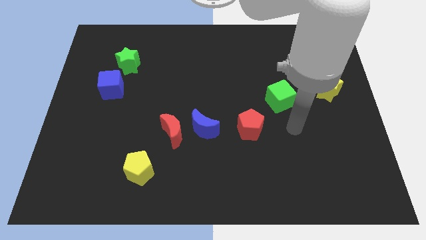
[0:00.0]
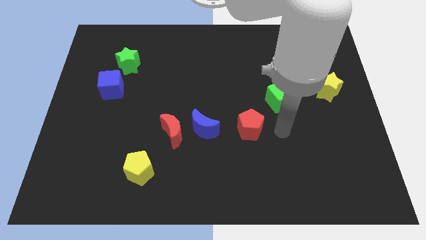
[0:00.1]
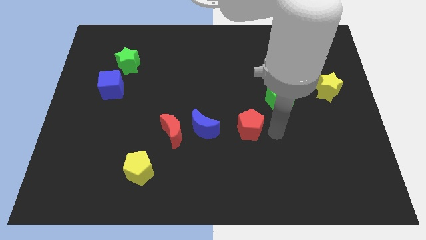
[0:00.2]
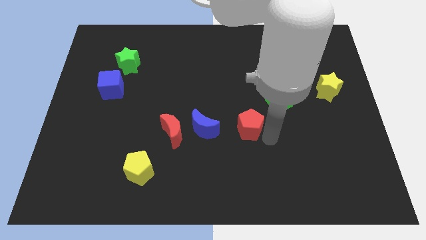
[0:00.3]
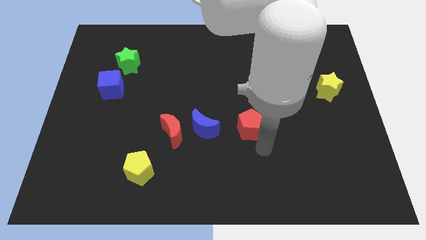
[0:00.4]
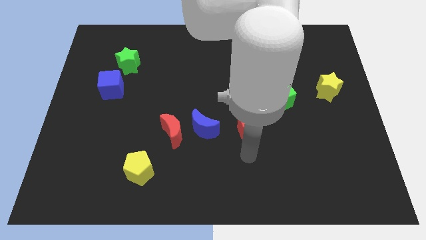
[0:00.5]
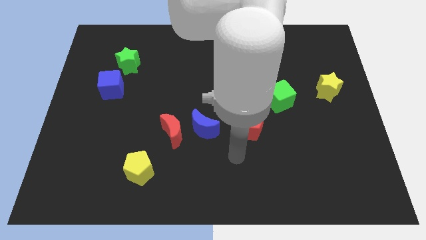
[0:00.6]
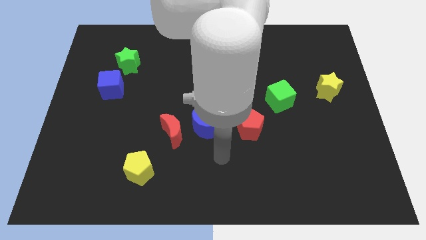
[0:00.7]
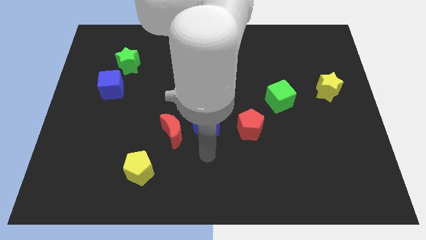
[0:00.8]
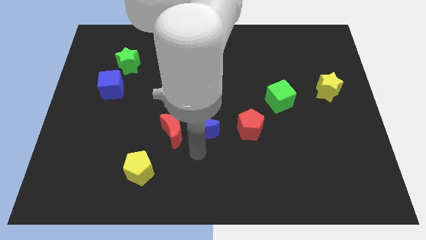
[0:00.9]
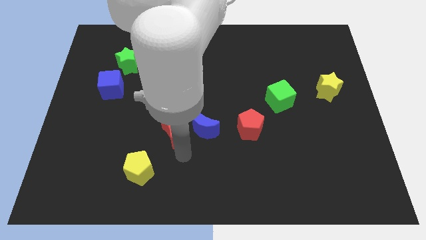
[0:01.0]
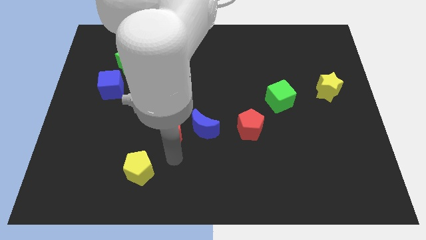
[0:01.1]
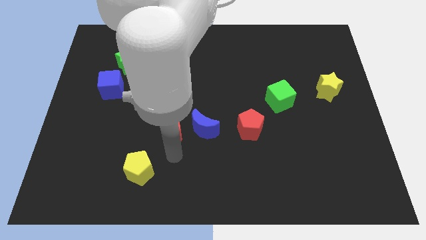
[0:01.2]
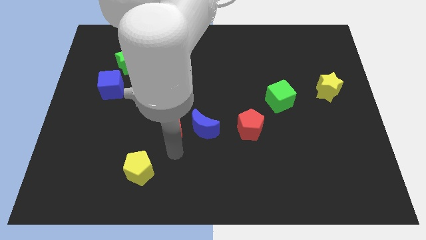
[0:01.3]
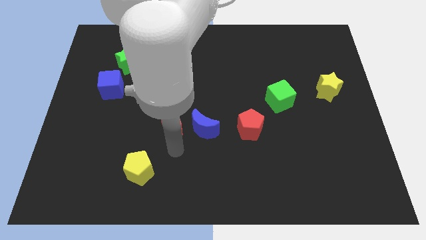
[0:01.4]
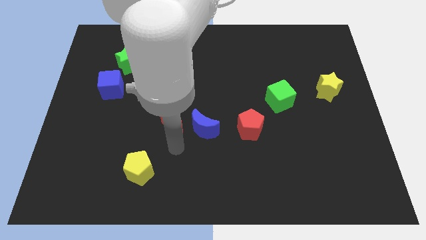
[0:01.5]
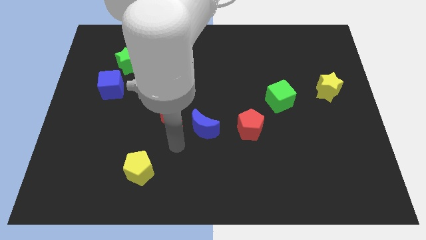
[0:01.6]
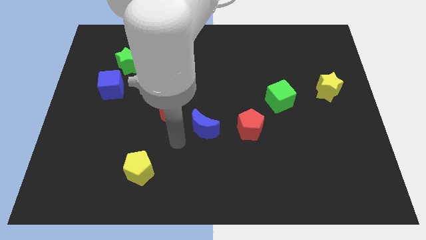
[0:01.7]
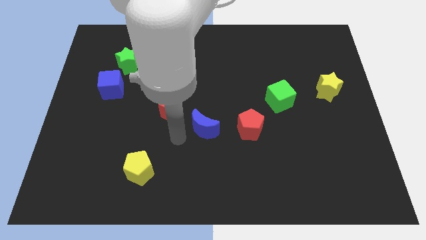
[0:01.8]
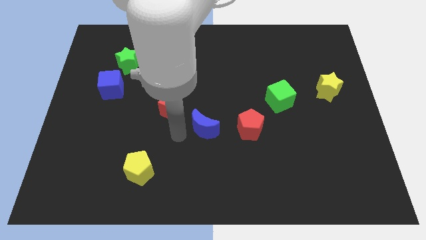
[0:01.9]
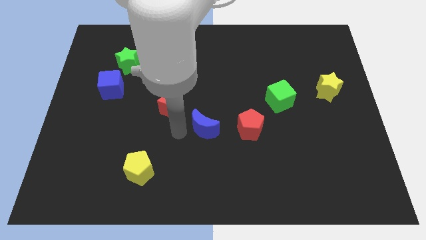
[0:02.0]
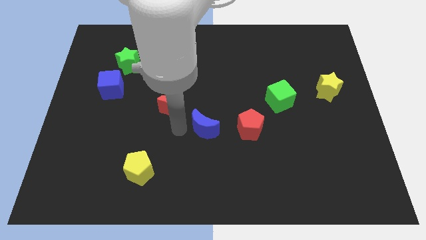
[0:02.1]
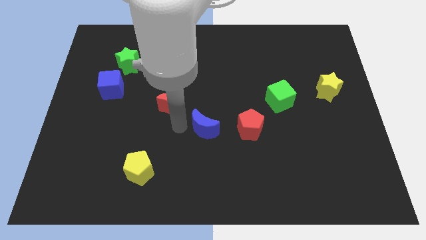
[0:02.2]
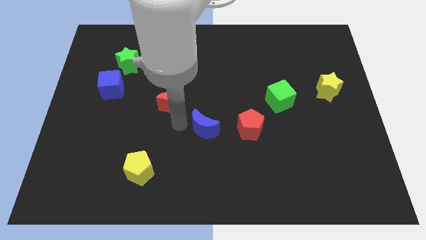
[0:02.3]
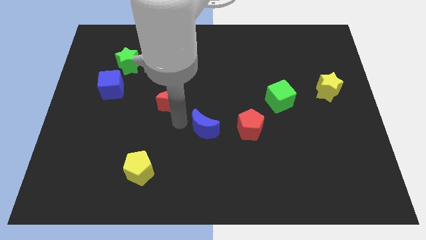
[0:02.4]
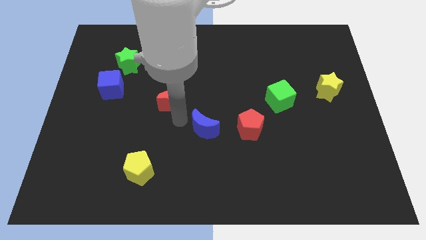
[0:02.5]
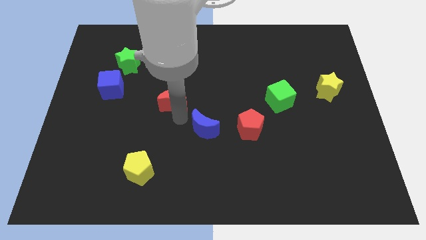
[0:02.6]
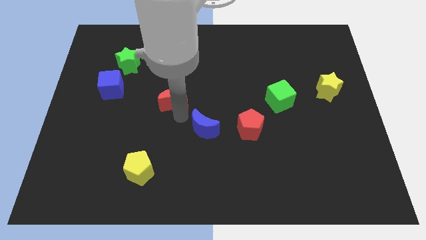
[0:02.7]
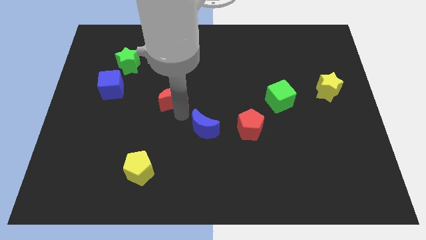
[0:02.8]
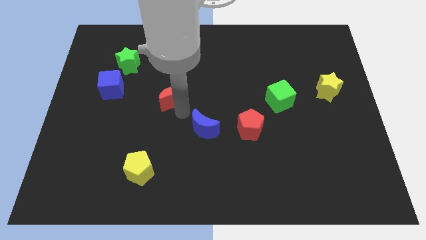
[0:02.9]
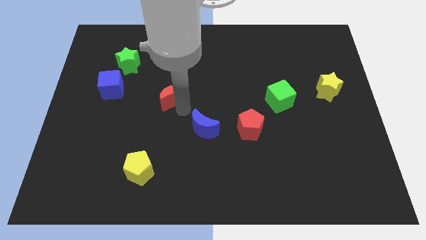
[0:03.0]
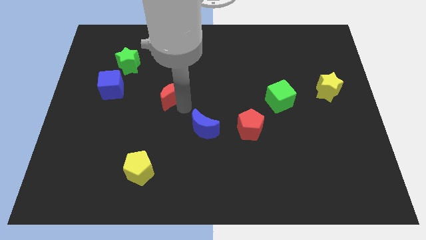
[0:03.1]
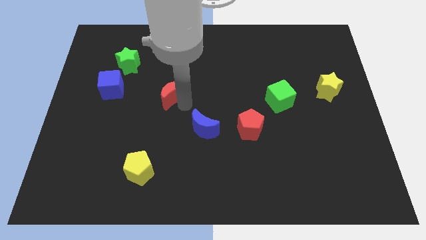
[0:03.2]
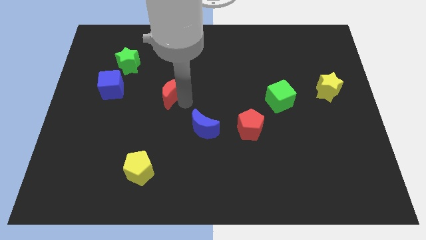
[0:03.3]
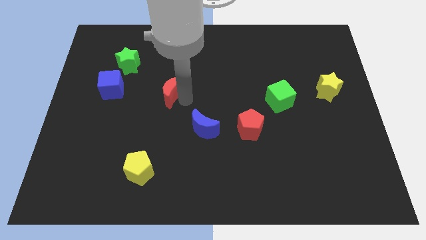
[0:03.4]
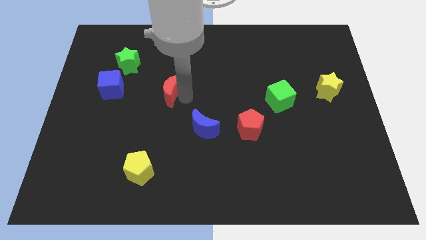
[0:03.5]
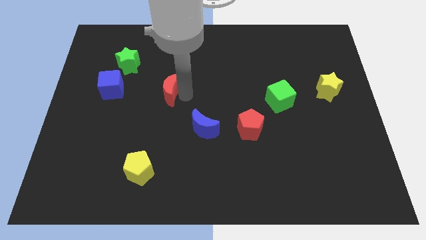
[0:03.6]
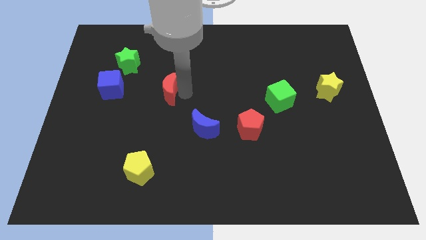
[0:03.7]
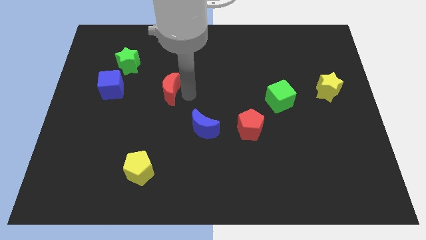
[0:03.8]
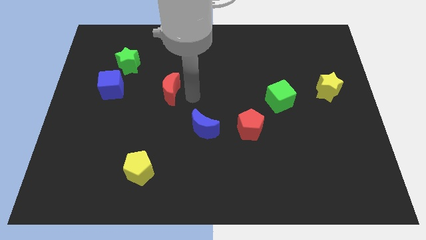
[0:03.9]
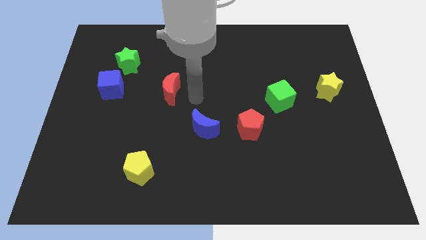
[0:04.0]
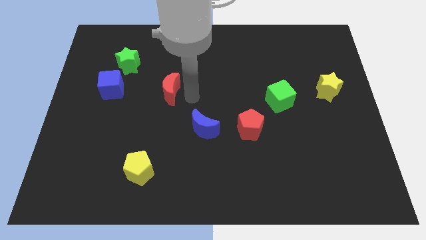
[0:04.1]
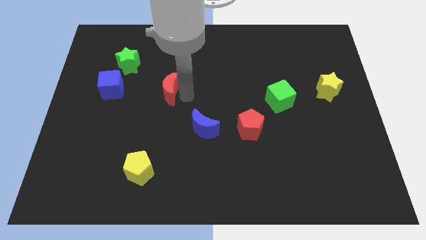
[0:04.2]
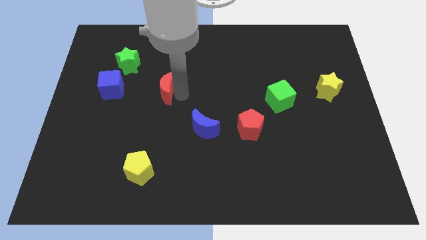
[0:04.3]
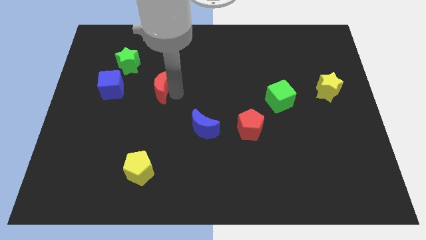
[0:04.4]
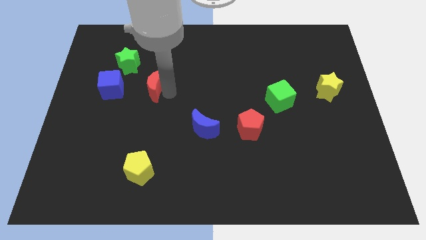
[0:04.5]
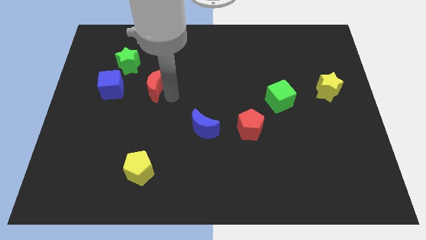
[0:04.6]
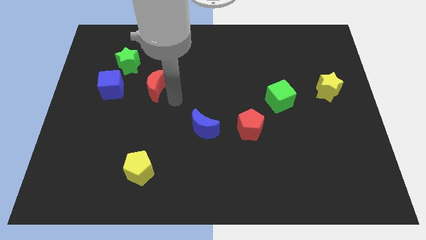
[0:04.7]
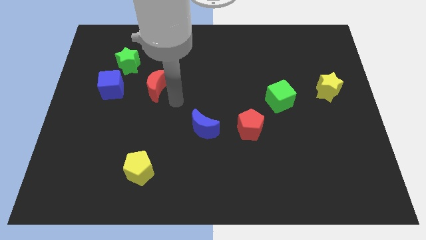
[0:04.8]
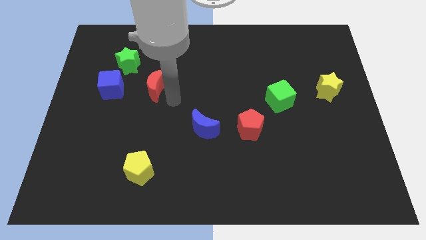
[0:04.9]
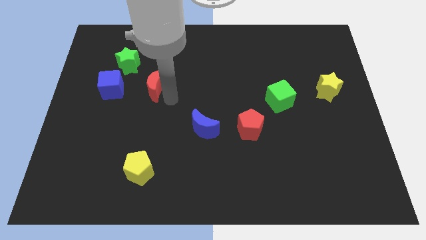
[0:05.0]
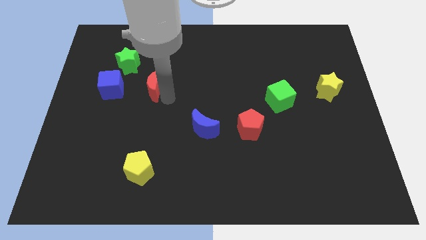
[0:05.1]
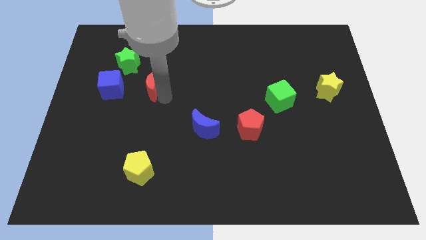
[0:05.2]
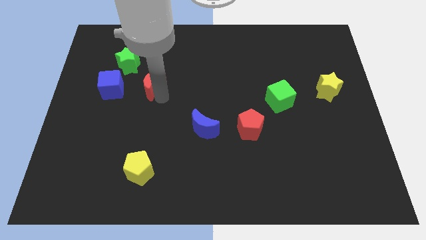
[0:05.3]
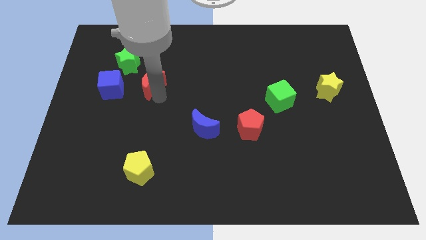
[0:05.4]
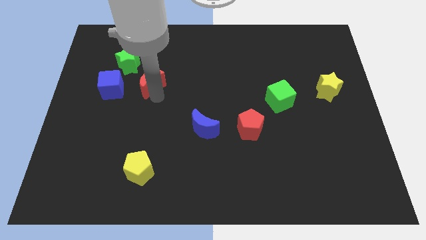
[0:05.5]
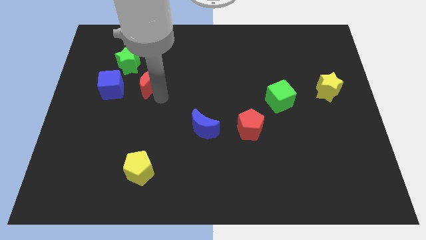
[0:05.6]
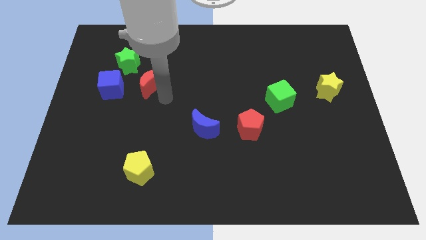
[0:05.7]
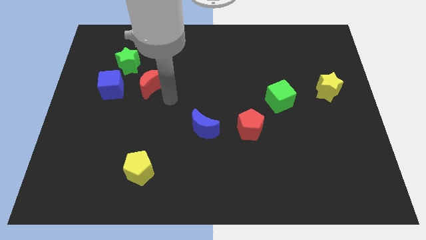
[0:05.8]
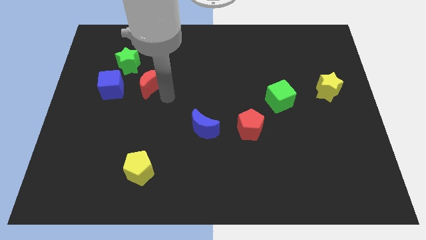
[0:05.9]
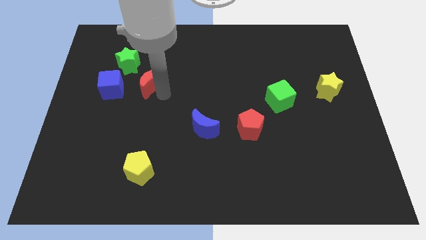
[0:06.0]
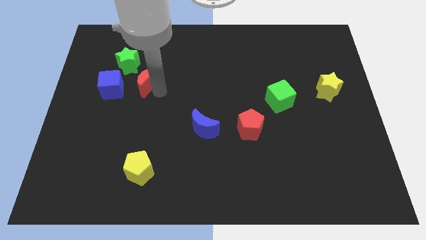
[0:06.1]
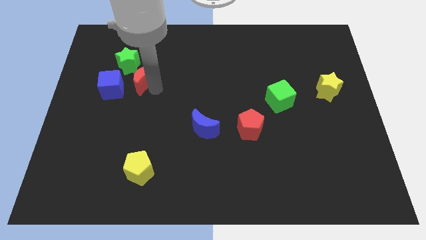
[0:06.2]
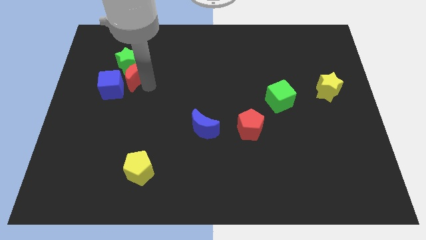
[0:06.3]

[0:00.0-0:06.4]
slide the red moon to the green star

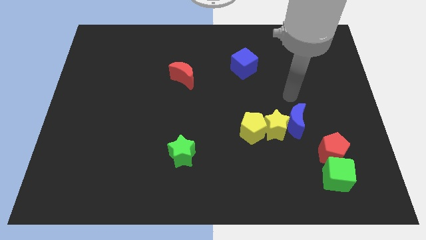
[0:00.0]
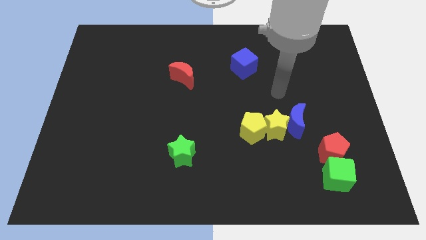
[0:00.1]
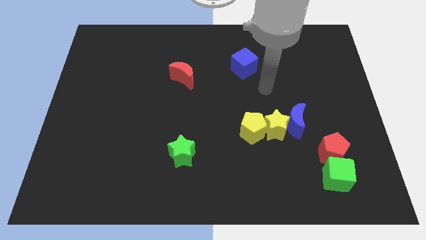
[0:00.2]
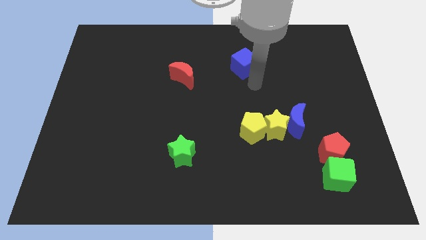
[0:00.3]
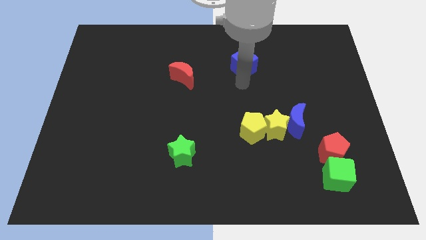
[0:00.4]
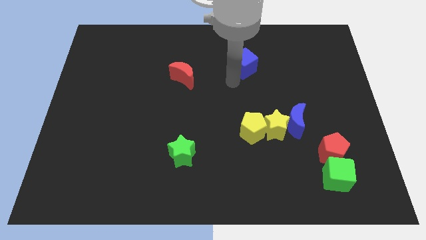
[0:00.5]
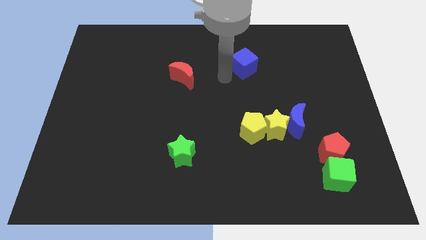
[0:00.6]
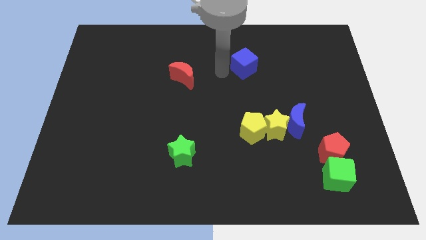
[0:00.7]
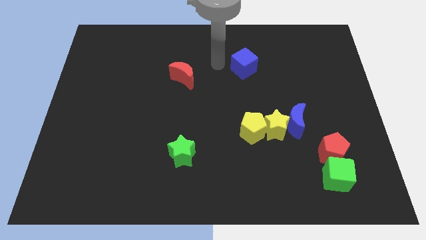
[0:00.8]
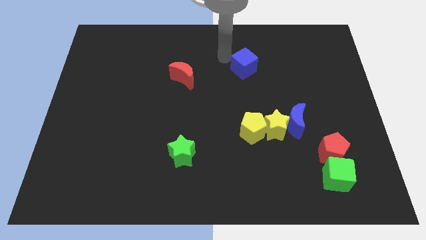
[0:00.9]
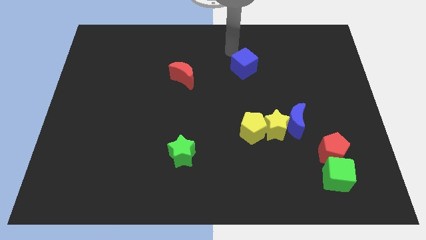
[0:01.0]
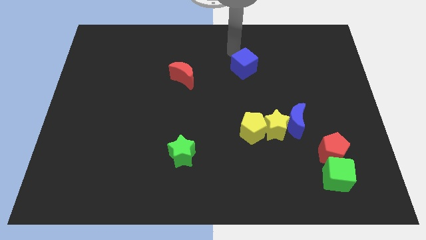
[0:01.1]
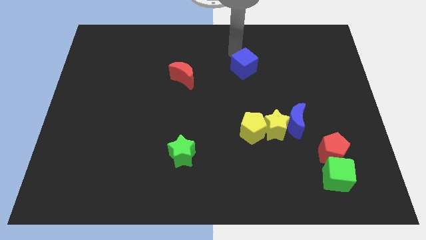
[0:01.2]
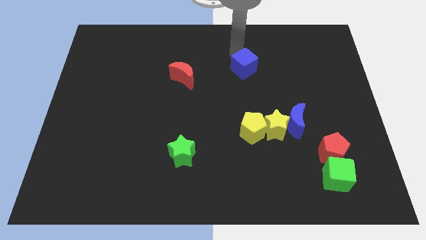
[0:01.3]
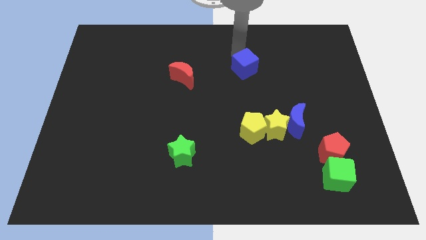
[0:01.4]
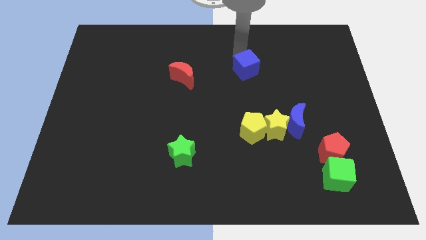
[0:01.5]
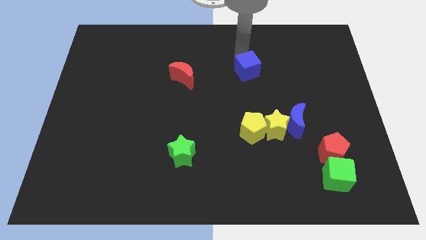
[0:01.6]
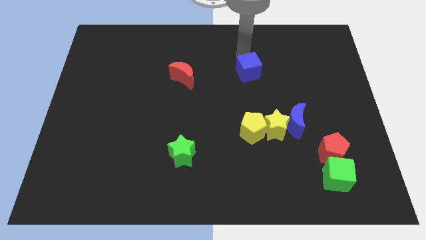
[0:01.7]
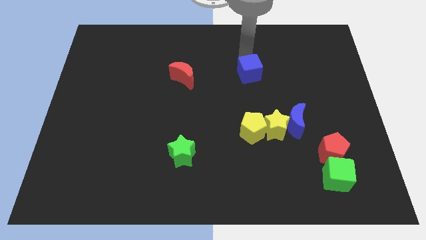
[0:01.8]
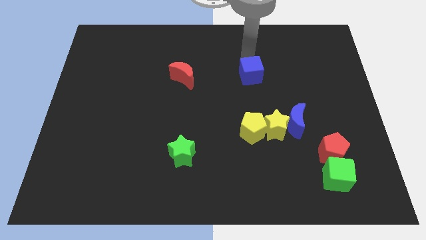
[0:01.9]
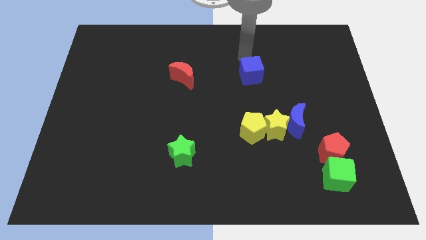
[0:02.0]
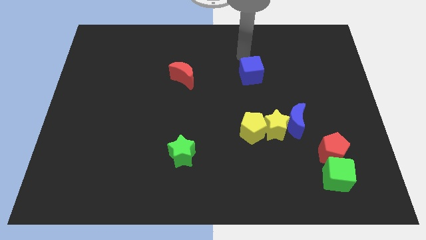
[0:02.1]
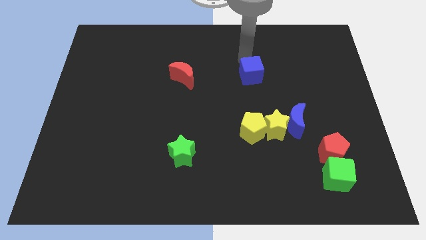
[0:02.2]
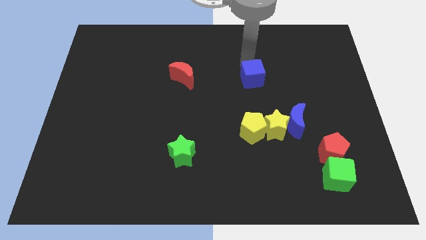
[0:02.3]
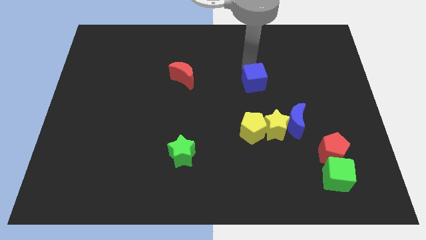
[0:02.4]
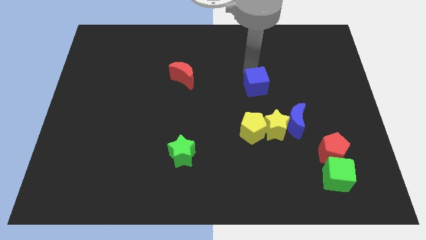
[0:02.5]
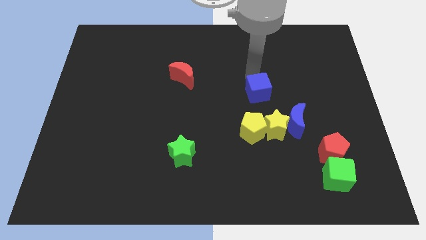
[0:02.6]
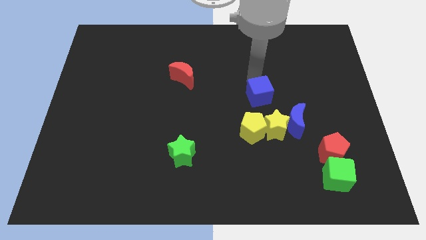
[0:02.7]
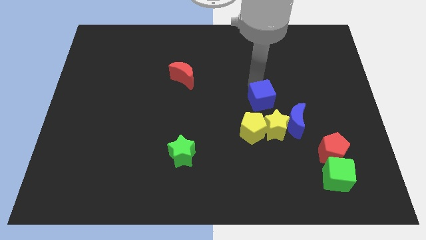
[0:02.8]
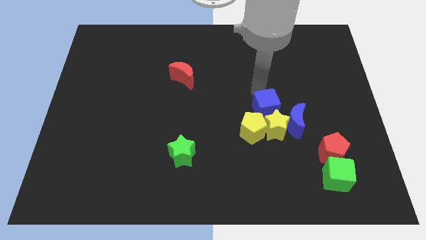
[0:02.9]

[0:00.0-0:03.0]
move the blue cube towards the yellow star
